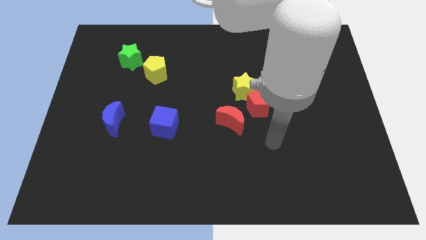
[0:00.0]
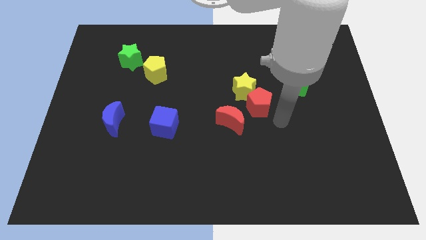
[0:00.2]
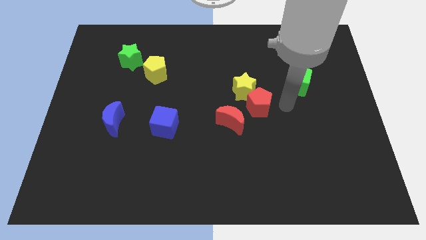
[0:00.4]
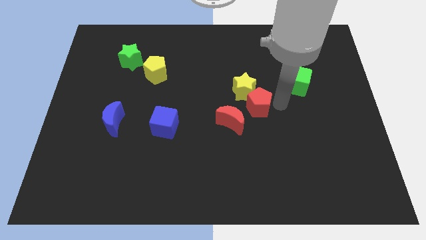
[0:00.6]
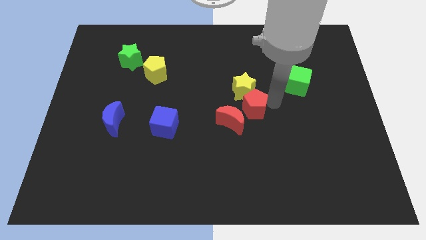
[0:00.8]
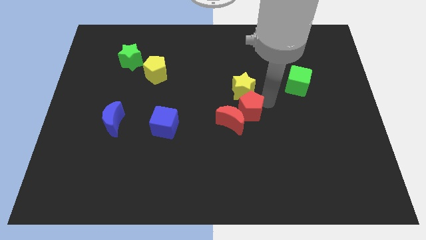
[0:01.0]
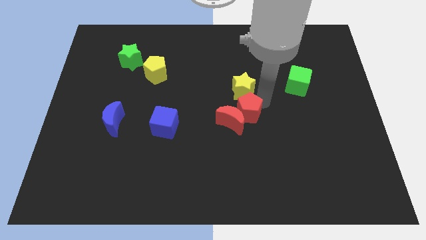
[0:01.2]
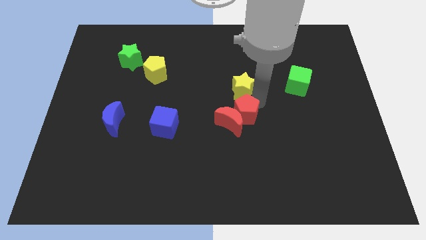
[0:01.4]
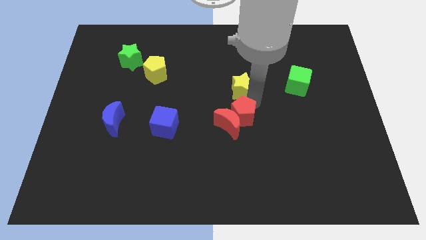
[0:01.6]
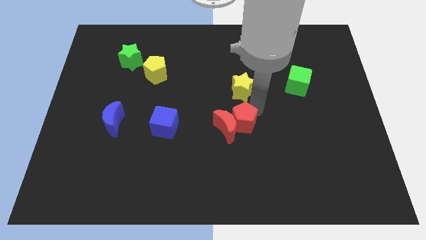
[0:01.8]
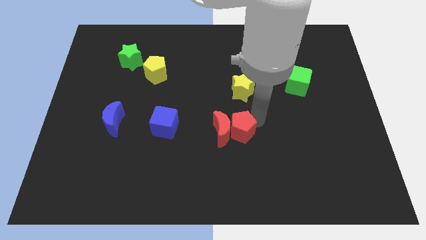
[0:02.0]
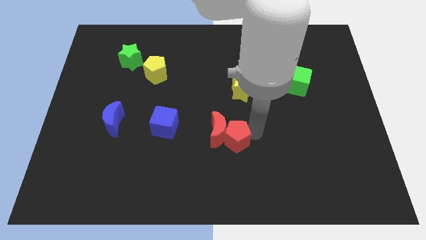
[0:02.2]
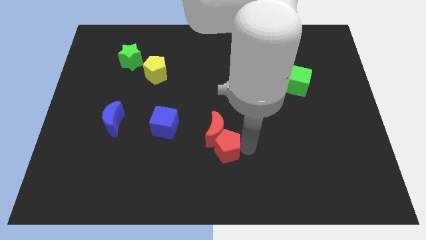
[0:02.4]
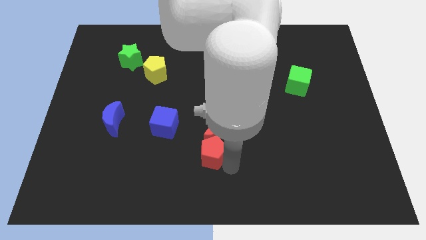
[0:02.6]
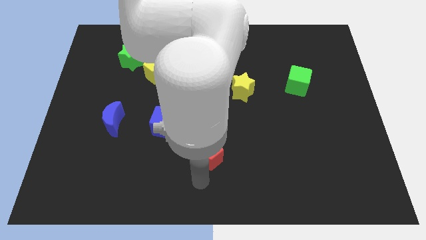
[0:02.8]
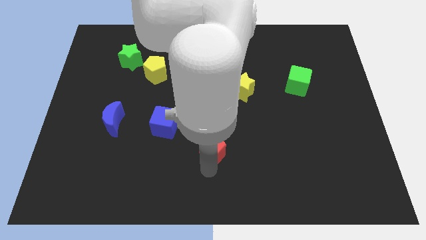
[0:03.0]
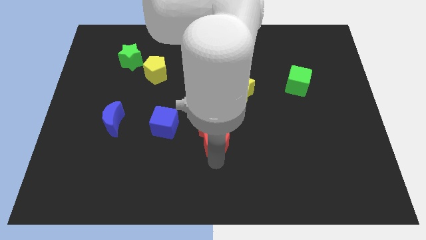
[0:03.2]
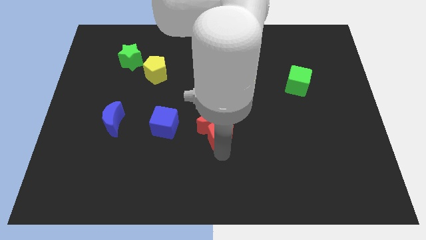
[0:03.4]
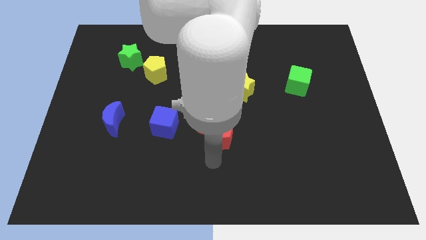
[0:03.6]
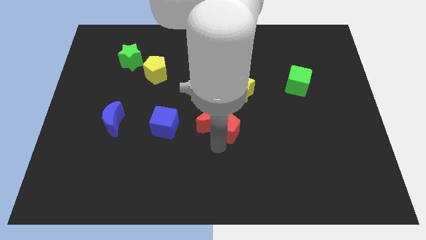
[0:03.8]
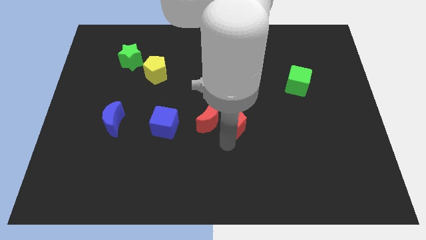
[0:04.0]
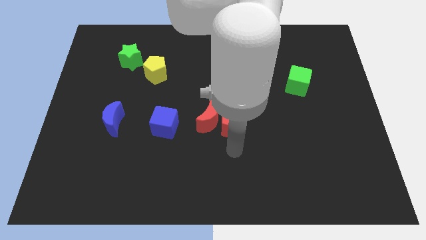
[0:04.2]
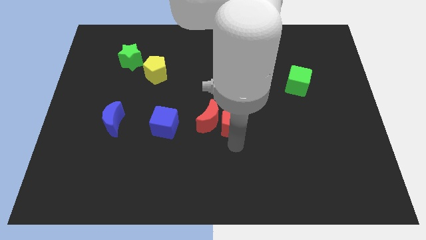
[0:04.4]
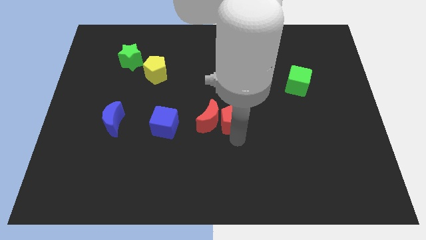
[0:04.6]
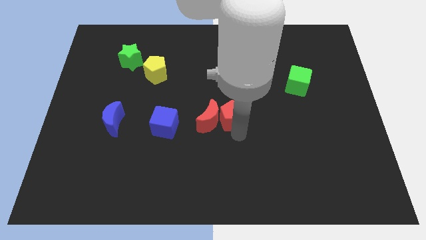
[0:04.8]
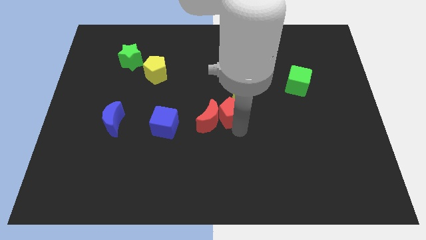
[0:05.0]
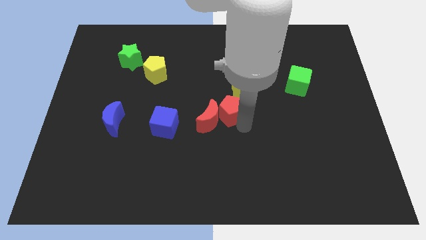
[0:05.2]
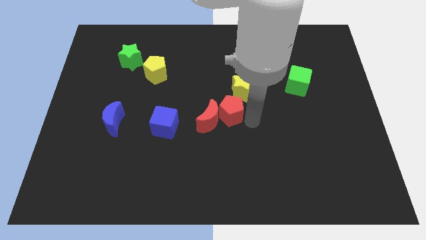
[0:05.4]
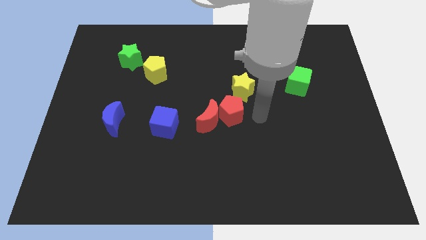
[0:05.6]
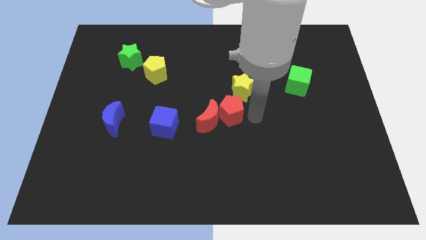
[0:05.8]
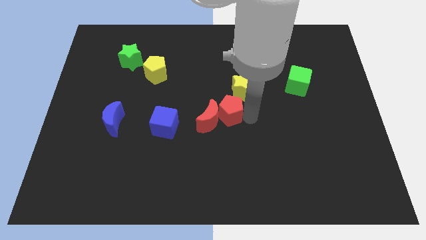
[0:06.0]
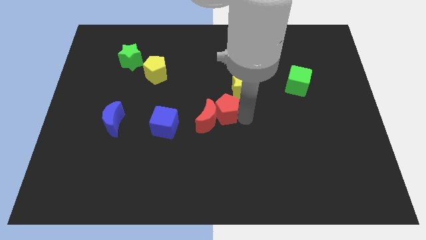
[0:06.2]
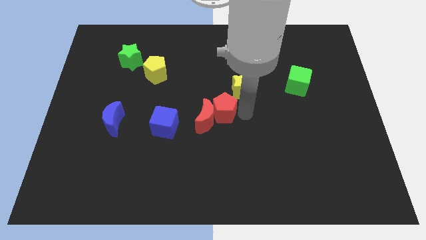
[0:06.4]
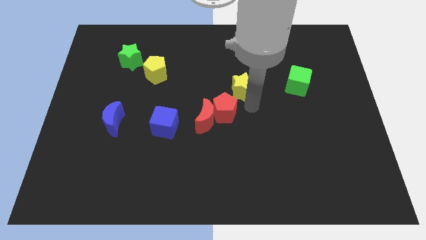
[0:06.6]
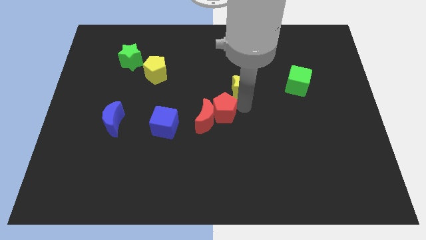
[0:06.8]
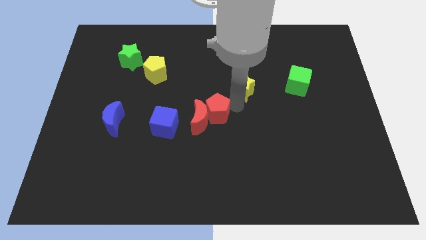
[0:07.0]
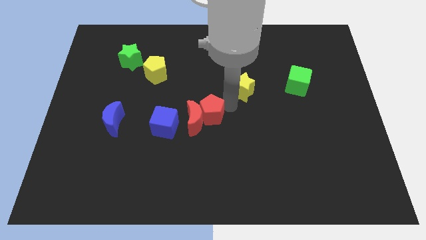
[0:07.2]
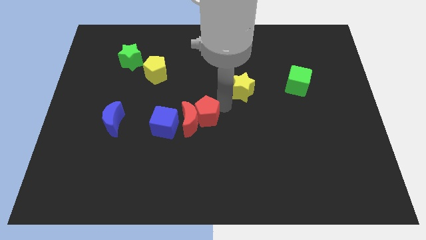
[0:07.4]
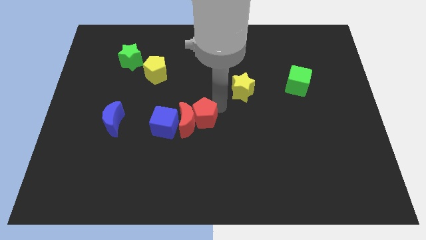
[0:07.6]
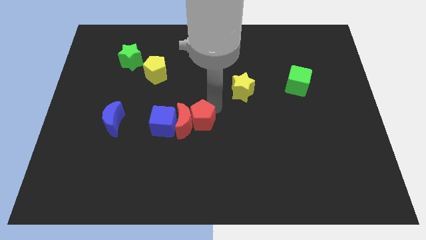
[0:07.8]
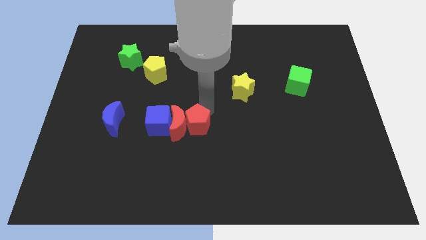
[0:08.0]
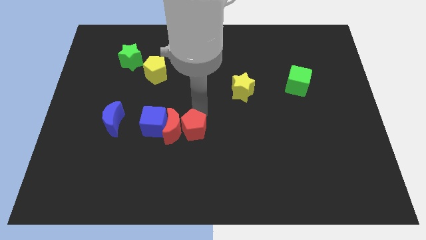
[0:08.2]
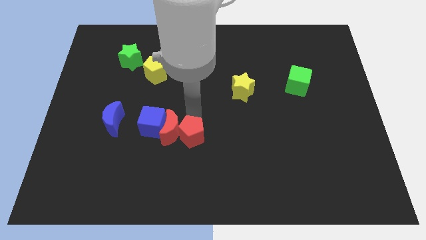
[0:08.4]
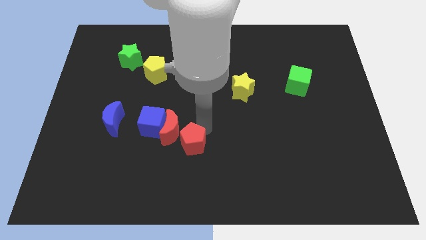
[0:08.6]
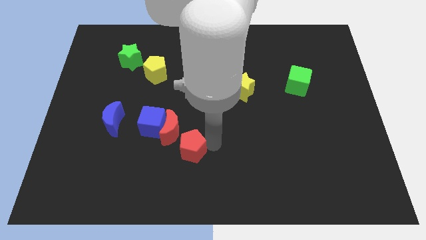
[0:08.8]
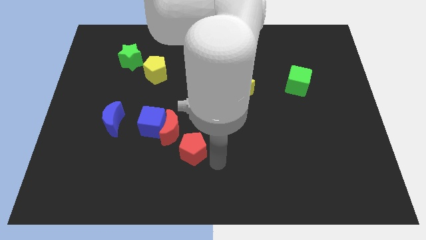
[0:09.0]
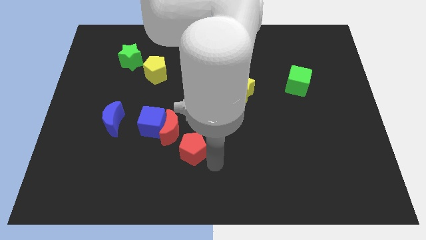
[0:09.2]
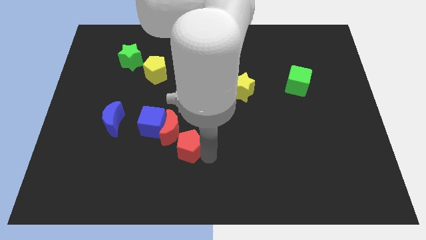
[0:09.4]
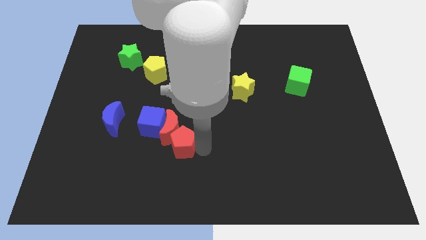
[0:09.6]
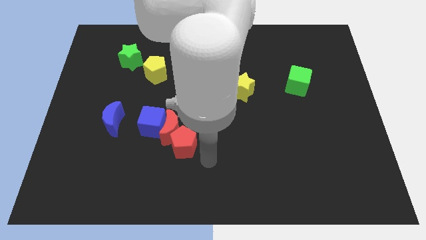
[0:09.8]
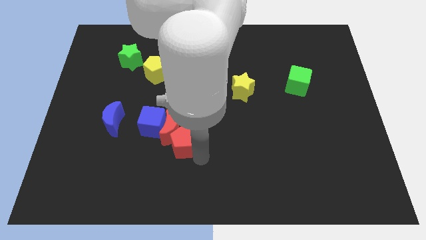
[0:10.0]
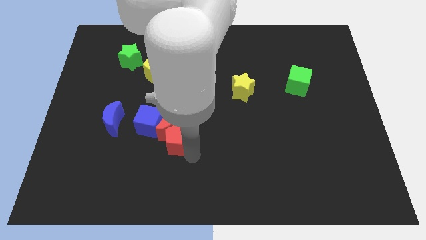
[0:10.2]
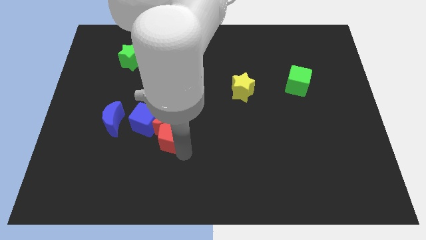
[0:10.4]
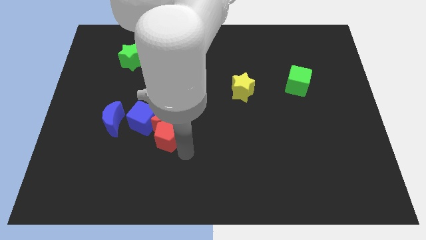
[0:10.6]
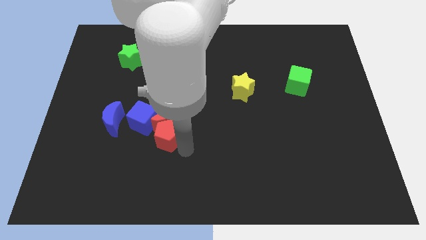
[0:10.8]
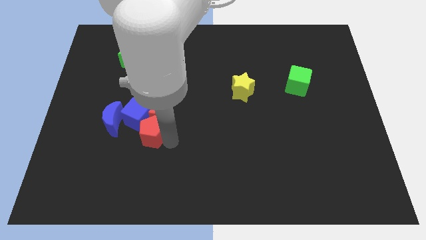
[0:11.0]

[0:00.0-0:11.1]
put the red pentagon close to the blue cube

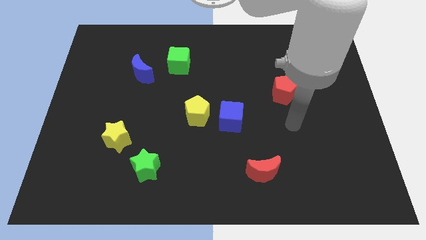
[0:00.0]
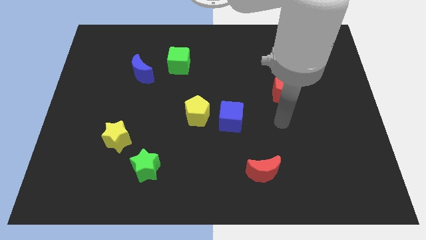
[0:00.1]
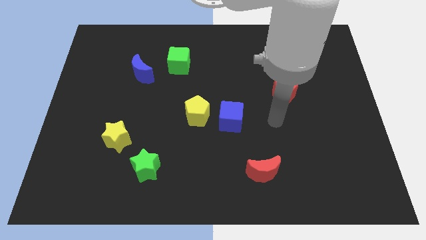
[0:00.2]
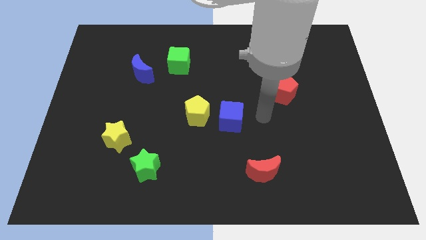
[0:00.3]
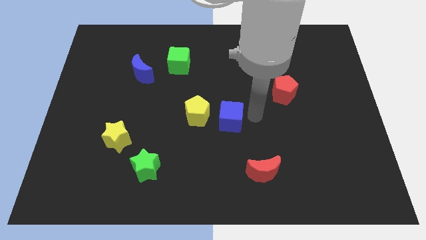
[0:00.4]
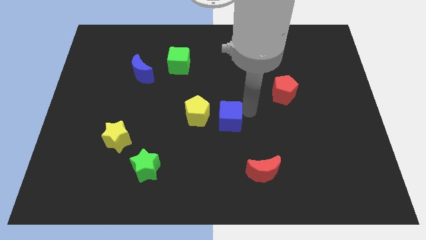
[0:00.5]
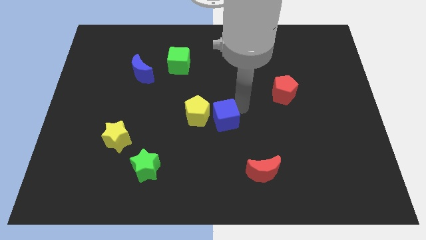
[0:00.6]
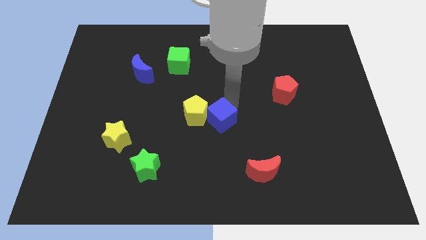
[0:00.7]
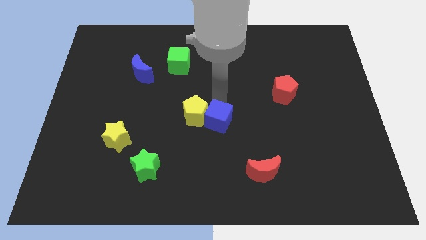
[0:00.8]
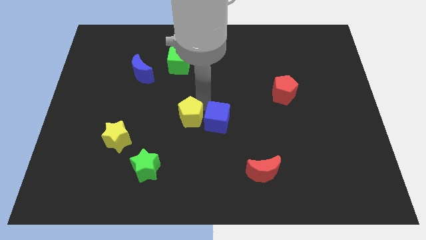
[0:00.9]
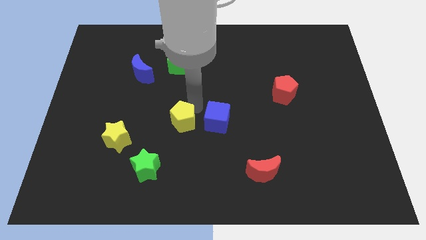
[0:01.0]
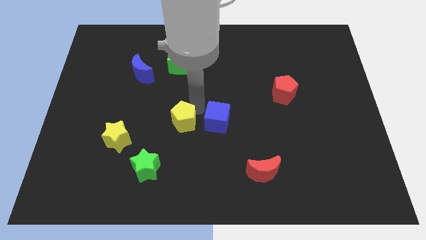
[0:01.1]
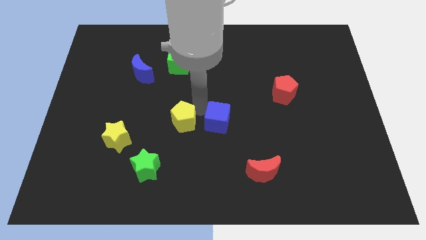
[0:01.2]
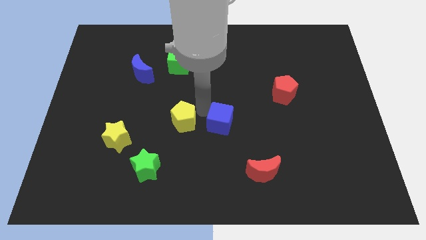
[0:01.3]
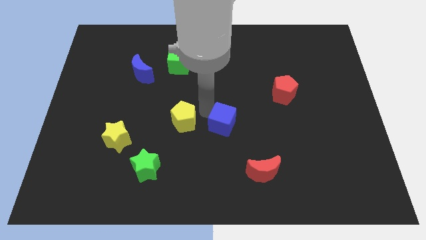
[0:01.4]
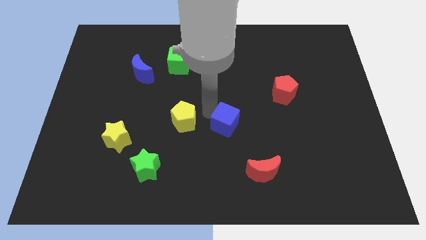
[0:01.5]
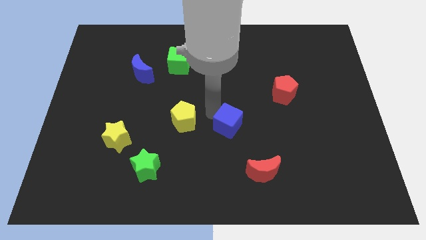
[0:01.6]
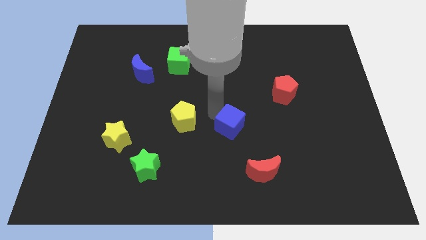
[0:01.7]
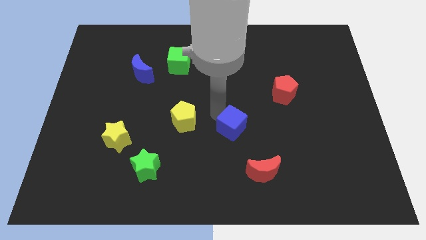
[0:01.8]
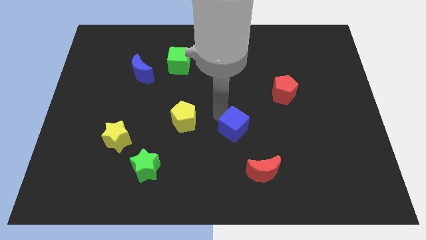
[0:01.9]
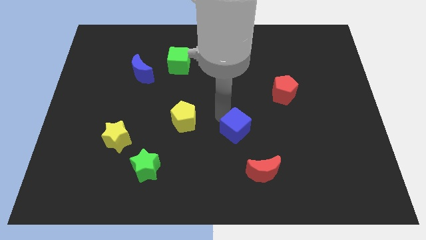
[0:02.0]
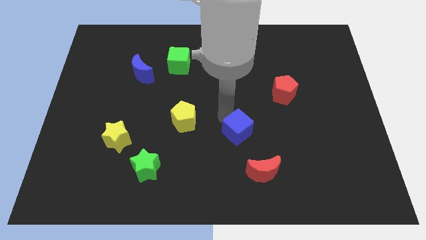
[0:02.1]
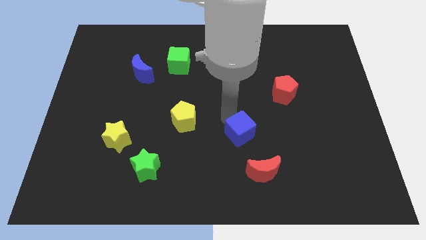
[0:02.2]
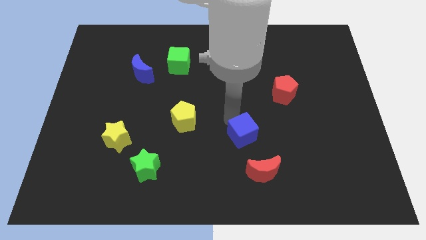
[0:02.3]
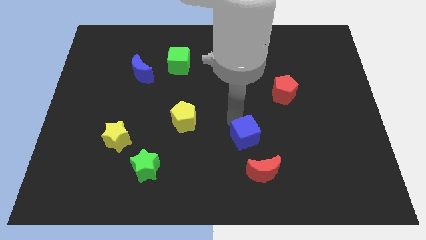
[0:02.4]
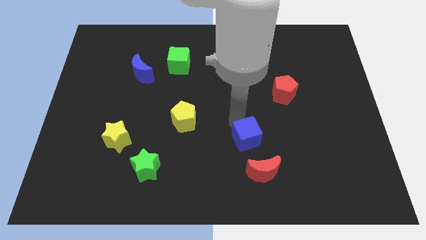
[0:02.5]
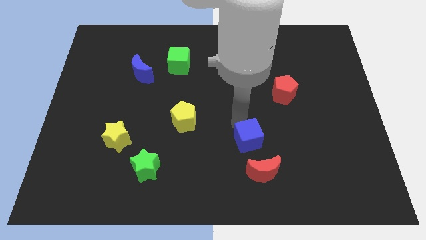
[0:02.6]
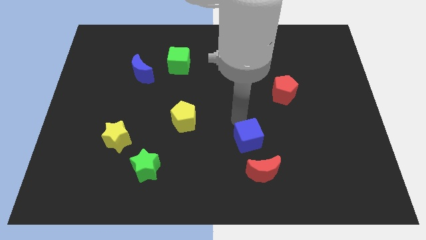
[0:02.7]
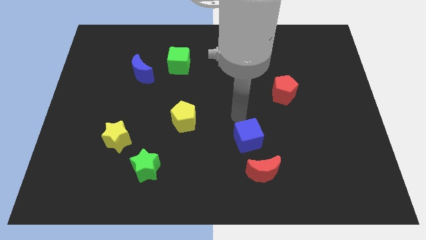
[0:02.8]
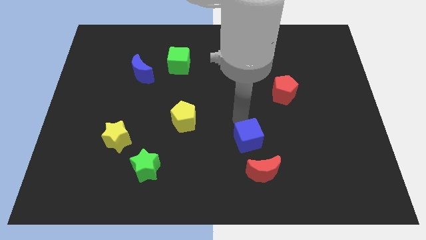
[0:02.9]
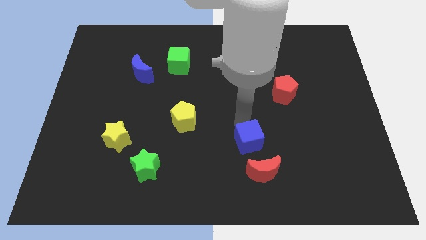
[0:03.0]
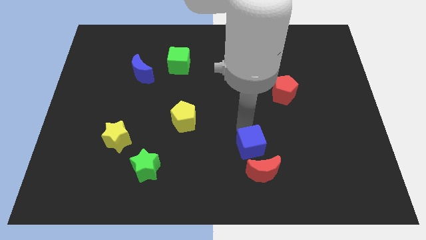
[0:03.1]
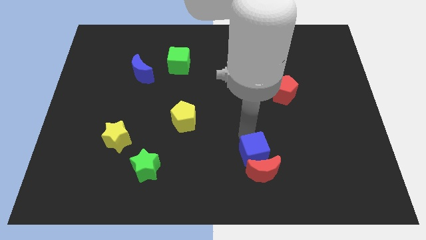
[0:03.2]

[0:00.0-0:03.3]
move the blue cube to the red moon
